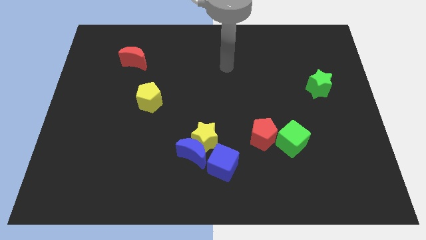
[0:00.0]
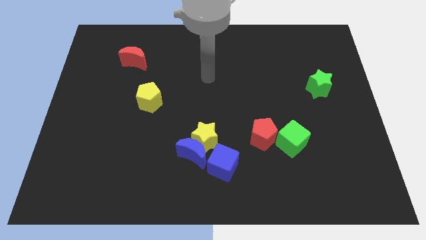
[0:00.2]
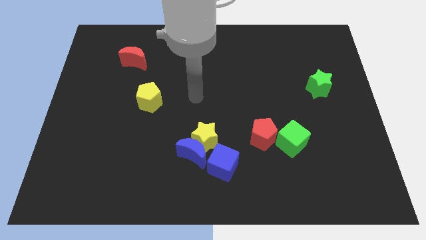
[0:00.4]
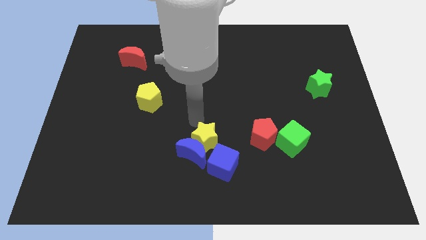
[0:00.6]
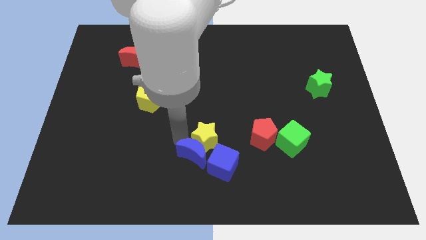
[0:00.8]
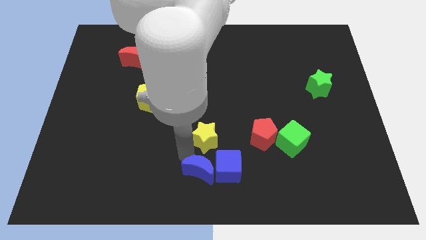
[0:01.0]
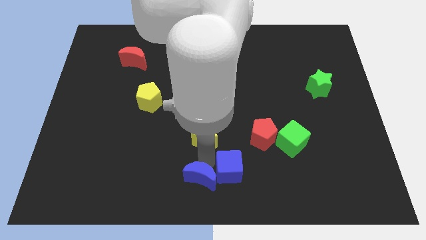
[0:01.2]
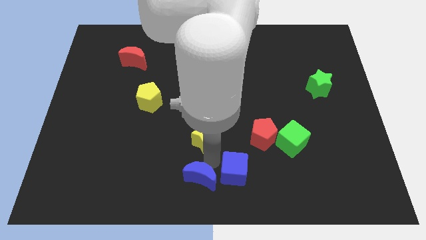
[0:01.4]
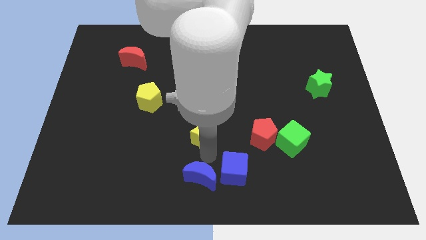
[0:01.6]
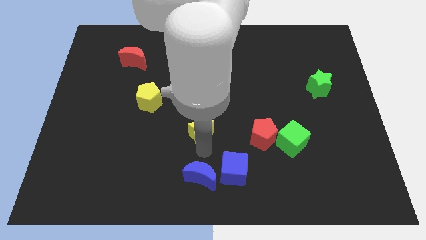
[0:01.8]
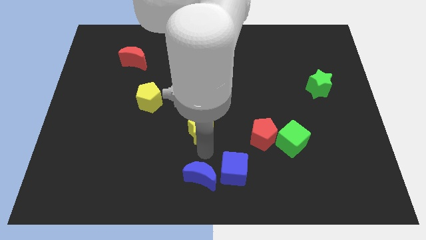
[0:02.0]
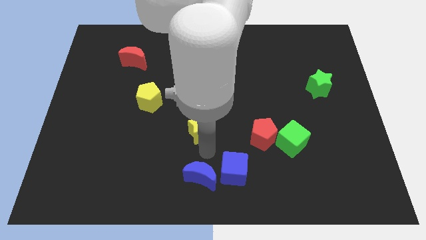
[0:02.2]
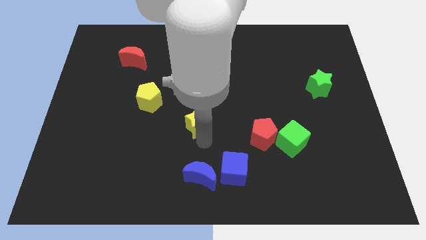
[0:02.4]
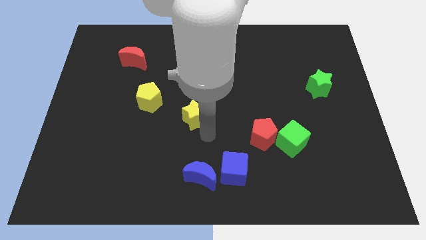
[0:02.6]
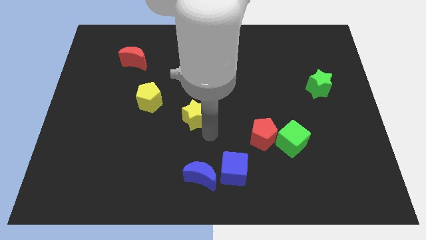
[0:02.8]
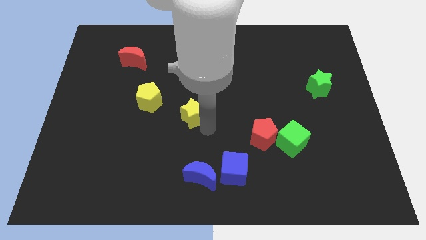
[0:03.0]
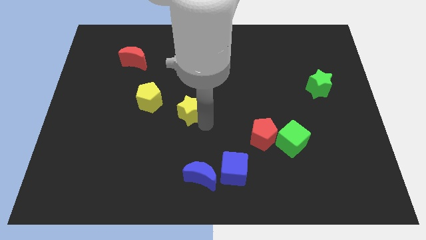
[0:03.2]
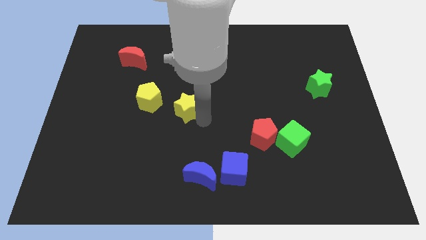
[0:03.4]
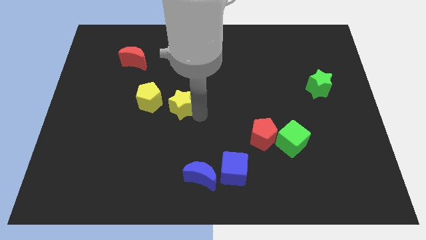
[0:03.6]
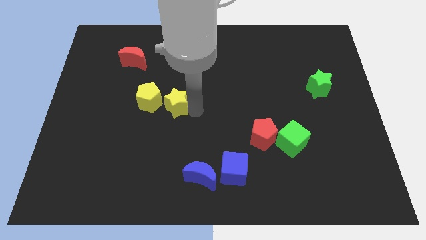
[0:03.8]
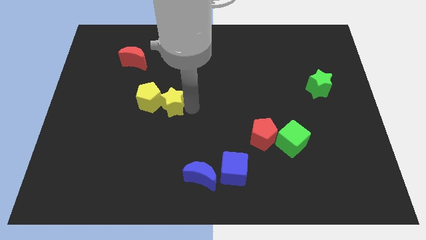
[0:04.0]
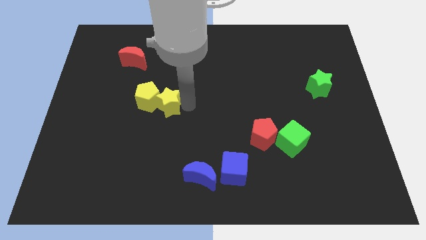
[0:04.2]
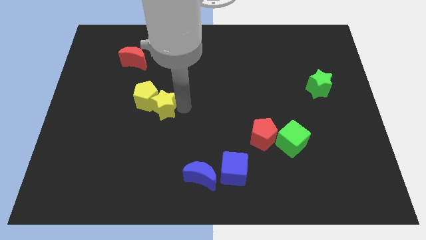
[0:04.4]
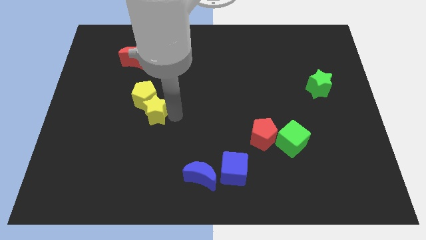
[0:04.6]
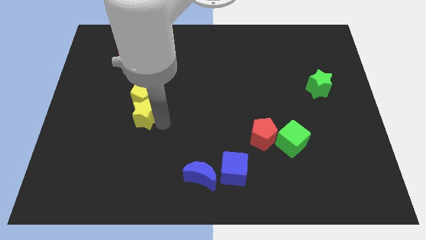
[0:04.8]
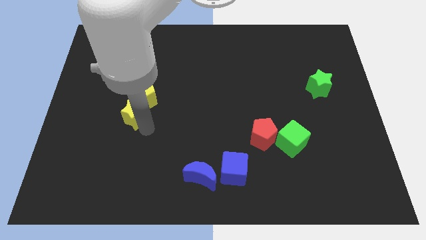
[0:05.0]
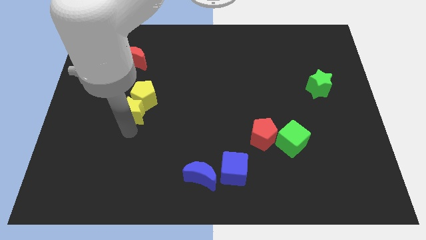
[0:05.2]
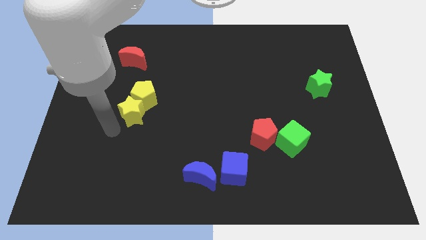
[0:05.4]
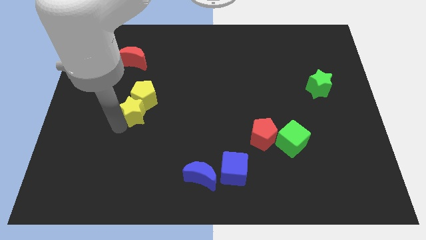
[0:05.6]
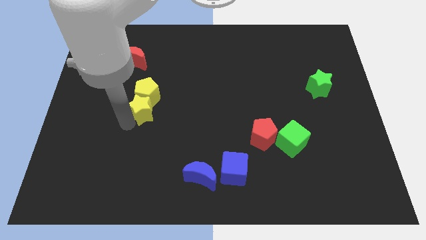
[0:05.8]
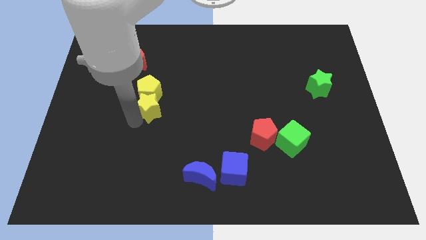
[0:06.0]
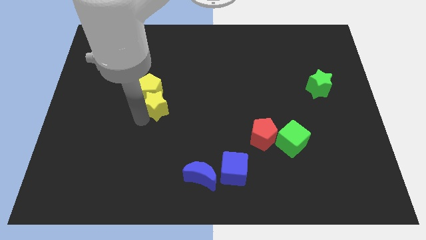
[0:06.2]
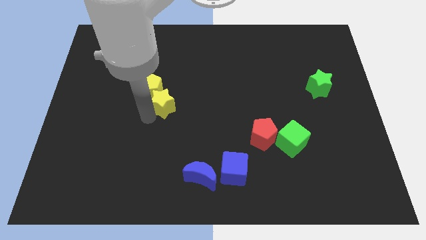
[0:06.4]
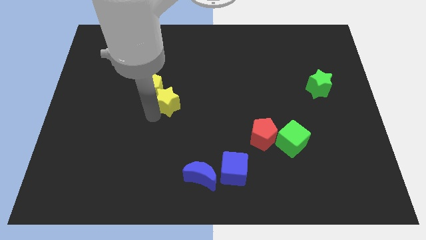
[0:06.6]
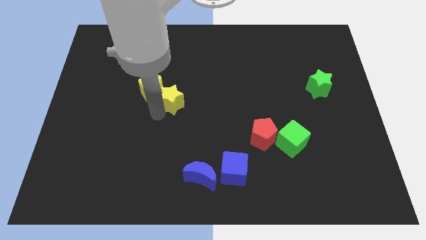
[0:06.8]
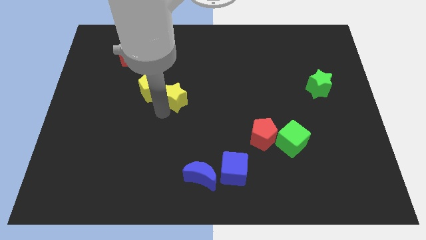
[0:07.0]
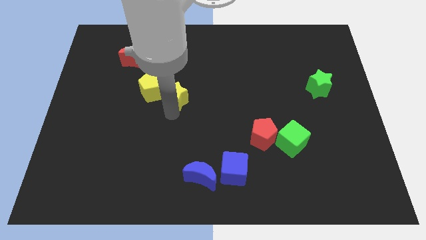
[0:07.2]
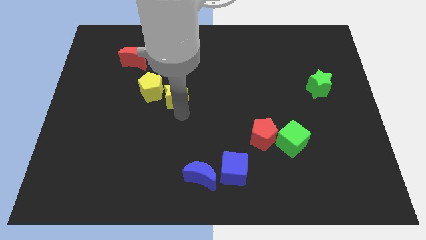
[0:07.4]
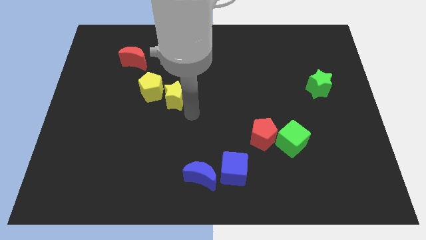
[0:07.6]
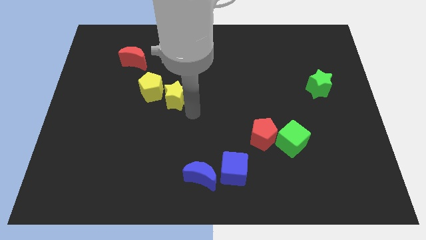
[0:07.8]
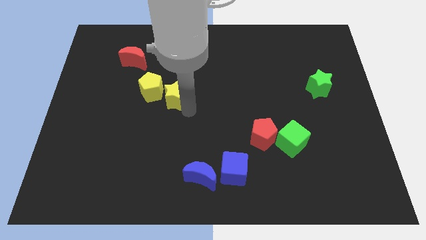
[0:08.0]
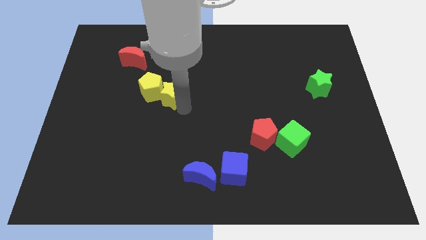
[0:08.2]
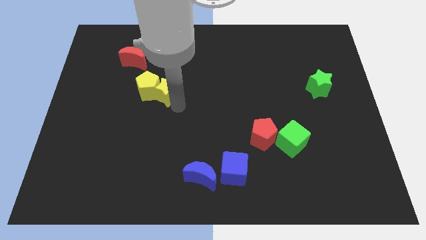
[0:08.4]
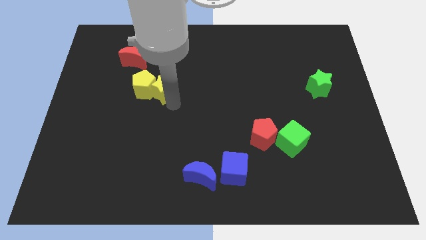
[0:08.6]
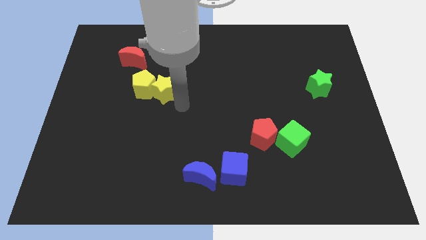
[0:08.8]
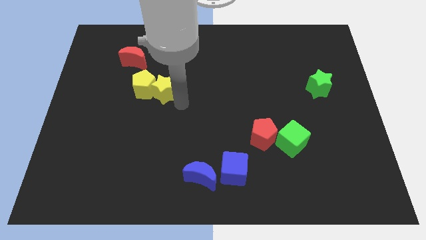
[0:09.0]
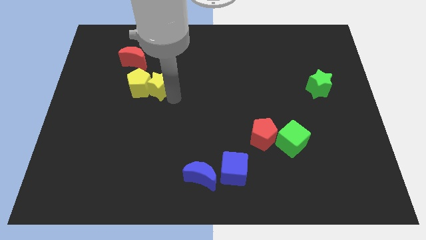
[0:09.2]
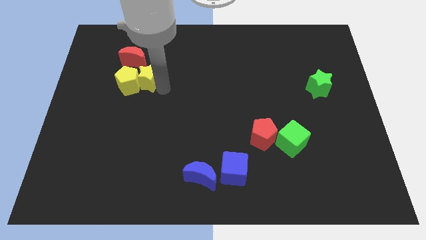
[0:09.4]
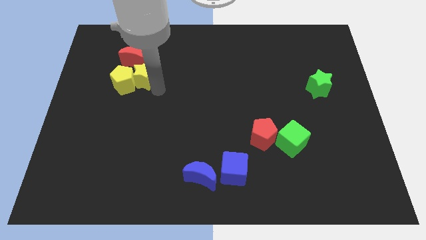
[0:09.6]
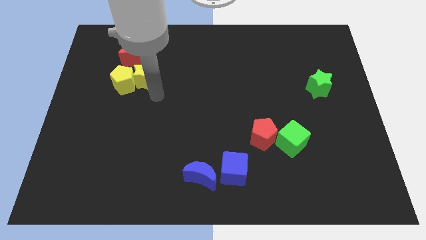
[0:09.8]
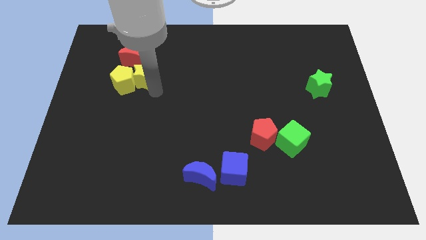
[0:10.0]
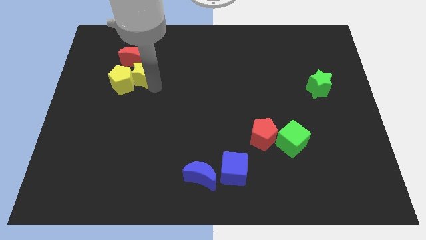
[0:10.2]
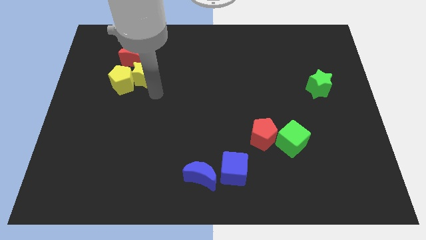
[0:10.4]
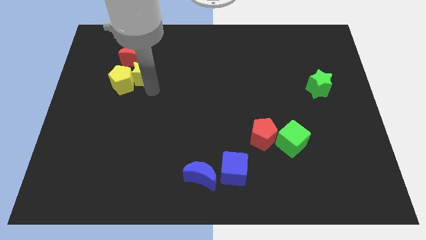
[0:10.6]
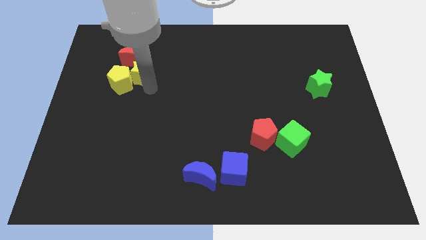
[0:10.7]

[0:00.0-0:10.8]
push the yellow star towards the red moon

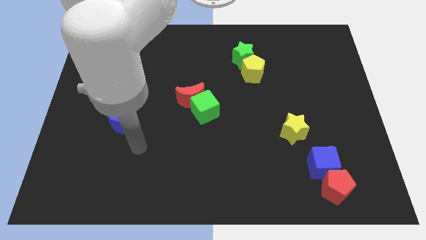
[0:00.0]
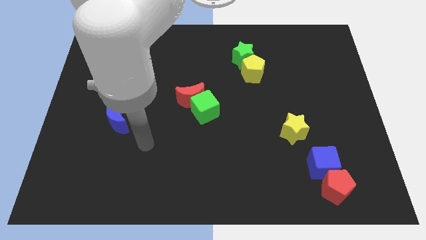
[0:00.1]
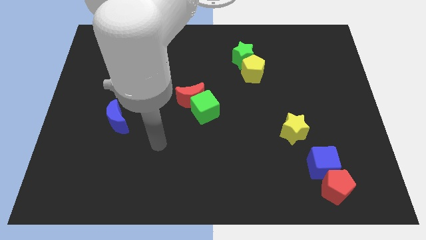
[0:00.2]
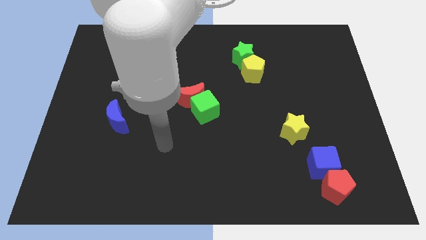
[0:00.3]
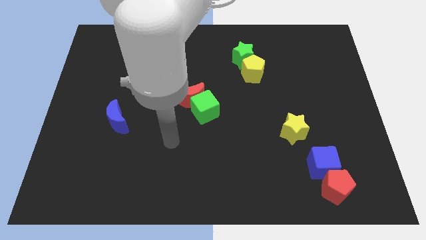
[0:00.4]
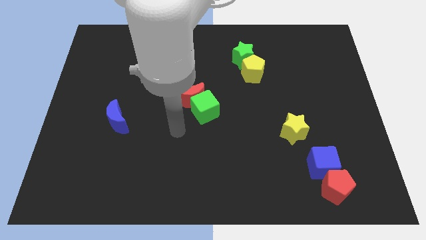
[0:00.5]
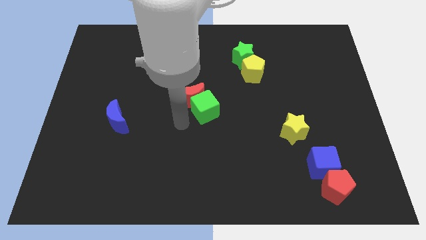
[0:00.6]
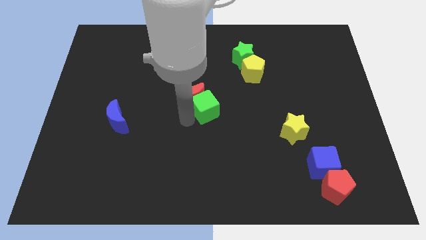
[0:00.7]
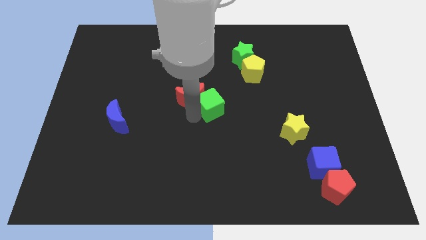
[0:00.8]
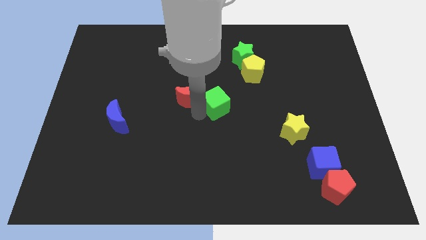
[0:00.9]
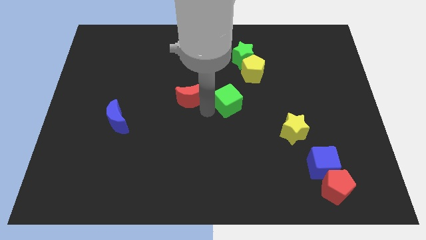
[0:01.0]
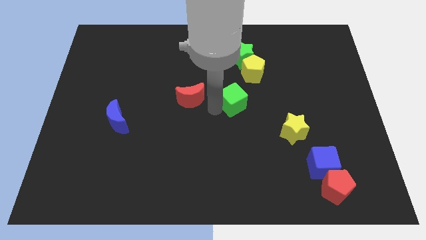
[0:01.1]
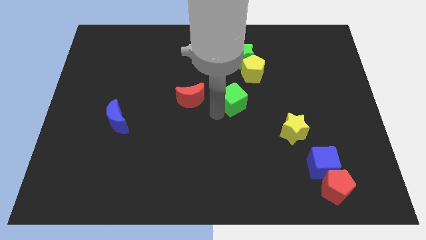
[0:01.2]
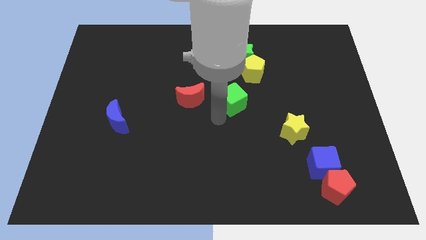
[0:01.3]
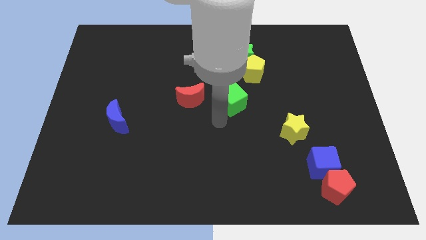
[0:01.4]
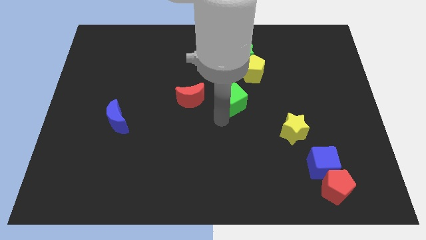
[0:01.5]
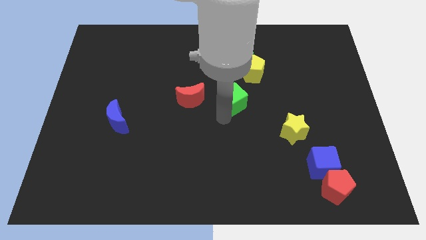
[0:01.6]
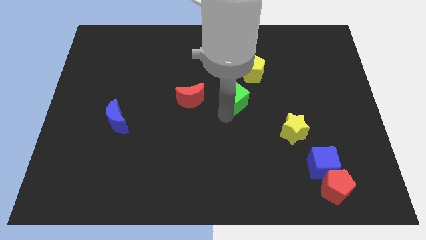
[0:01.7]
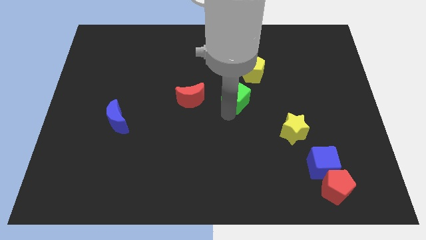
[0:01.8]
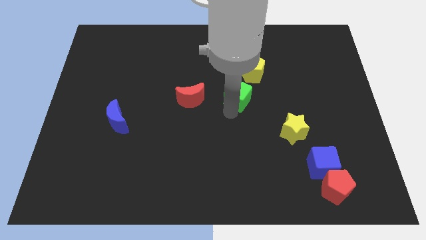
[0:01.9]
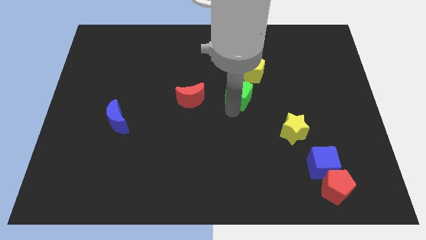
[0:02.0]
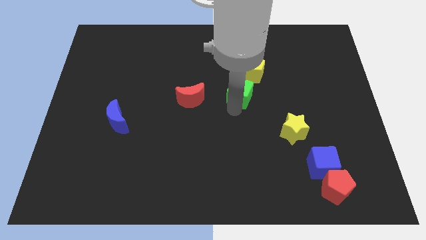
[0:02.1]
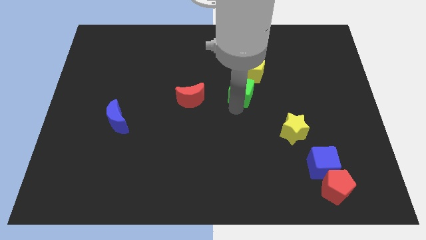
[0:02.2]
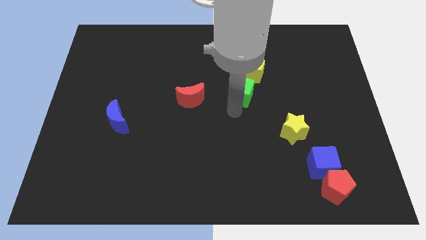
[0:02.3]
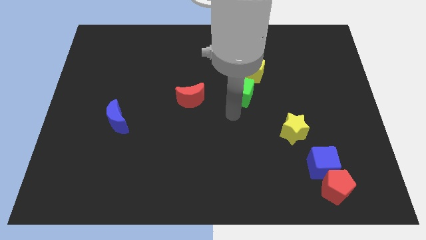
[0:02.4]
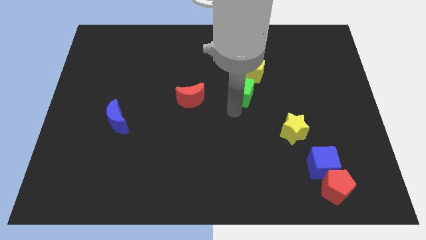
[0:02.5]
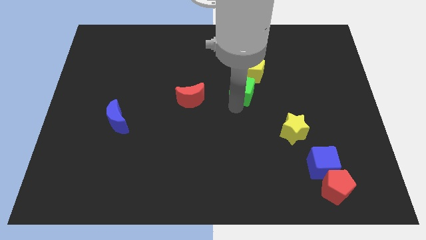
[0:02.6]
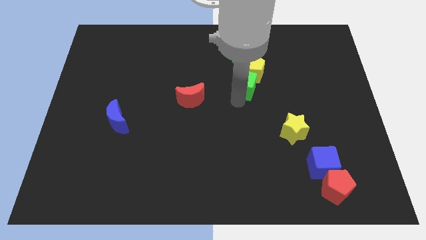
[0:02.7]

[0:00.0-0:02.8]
move the green cube towards the yellow pentagon
